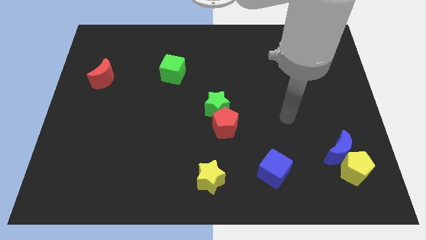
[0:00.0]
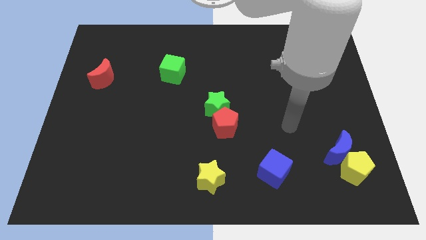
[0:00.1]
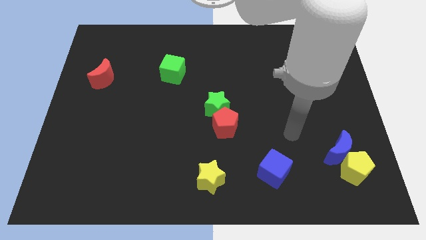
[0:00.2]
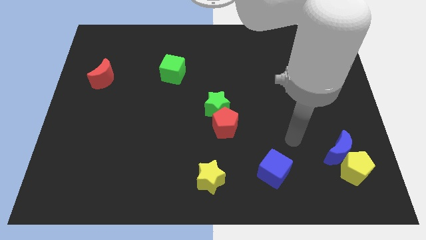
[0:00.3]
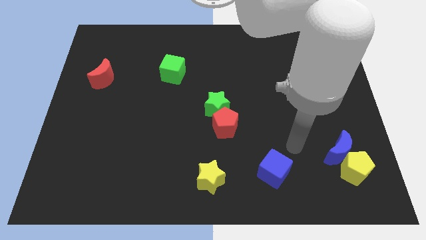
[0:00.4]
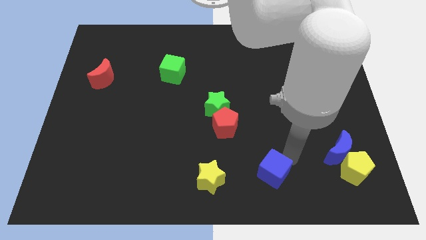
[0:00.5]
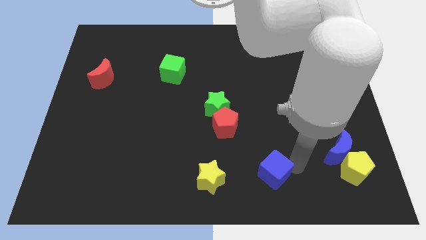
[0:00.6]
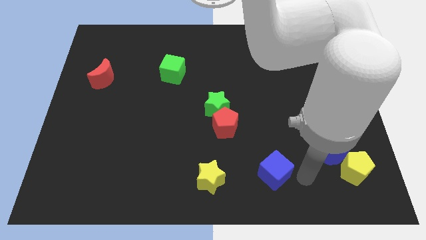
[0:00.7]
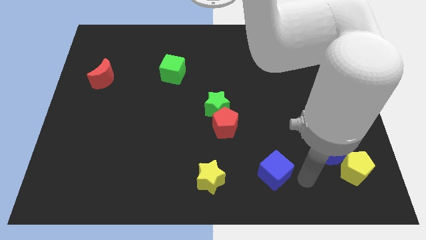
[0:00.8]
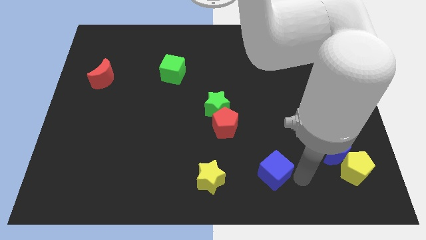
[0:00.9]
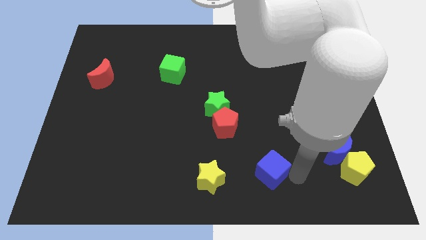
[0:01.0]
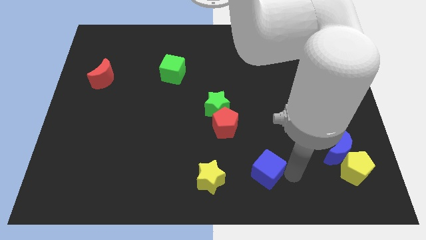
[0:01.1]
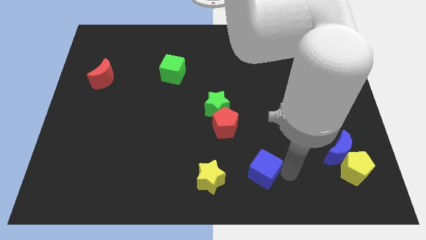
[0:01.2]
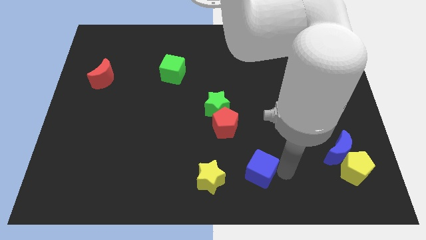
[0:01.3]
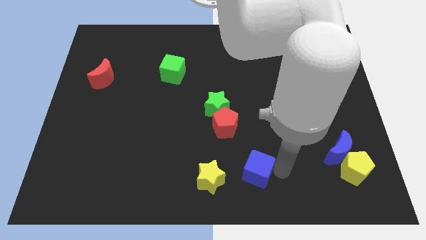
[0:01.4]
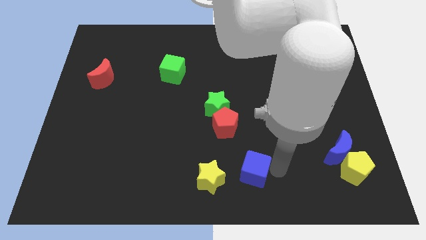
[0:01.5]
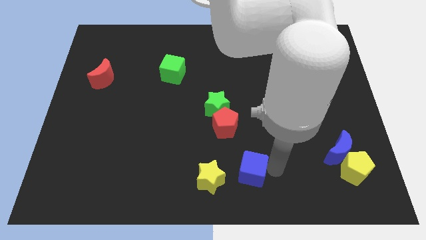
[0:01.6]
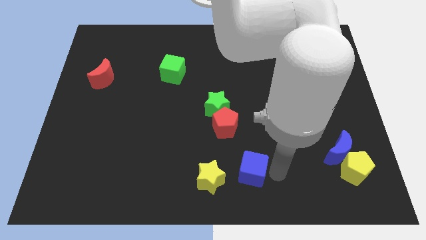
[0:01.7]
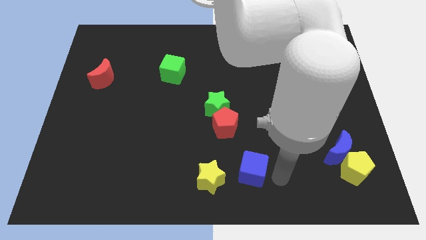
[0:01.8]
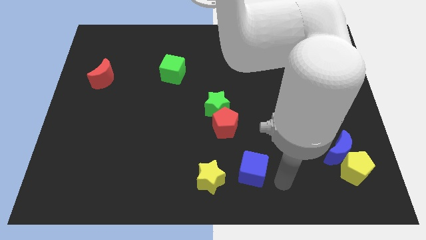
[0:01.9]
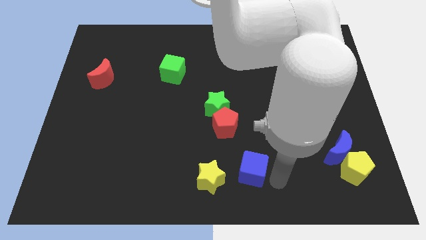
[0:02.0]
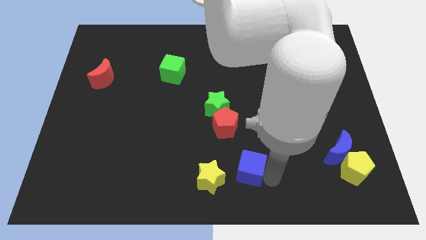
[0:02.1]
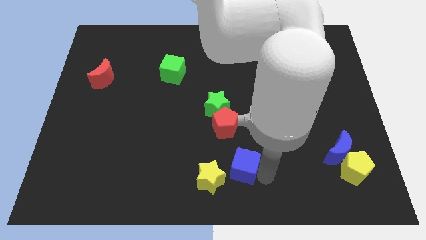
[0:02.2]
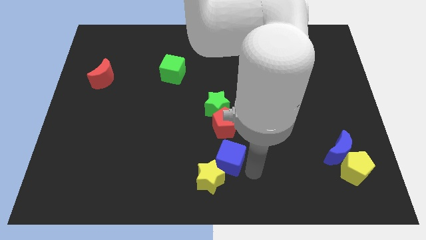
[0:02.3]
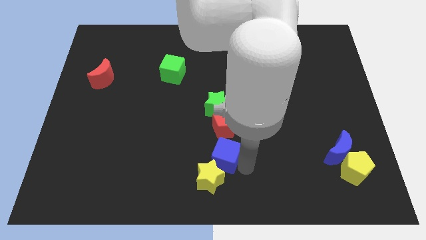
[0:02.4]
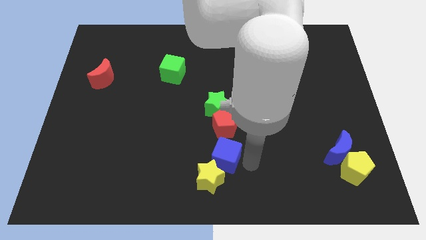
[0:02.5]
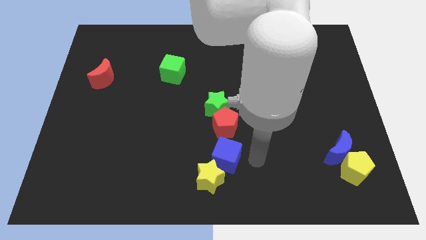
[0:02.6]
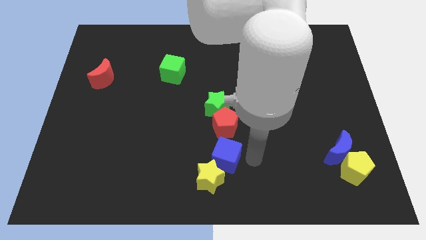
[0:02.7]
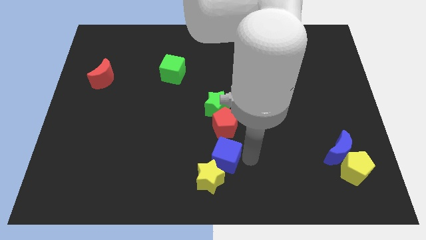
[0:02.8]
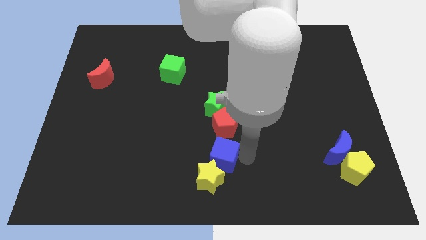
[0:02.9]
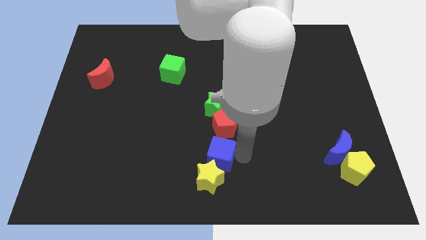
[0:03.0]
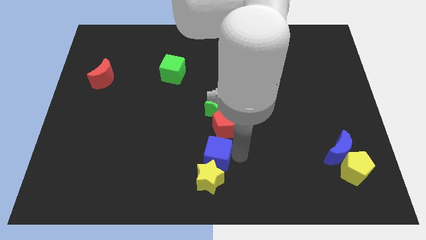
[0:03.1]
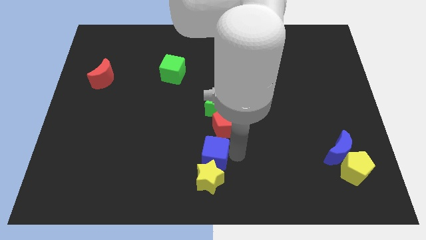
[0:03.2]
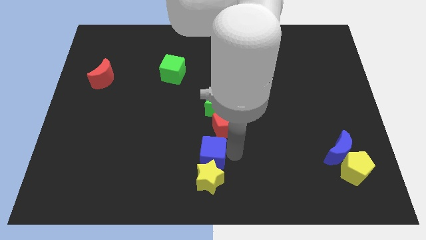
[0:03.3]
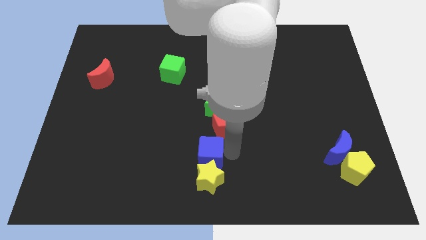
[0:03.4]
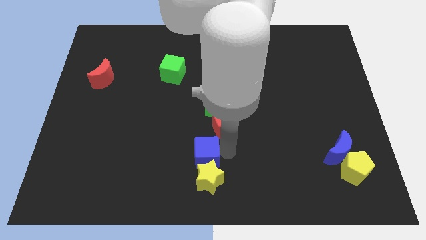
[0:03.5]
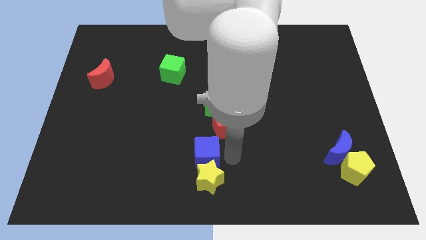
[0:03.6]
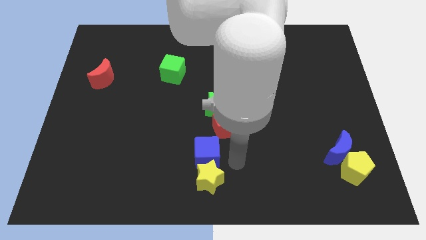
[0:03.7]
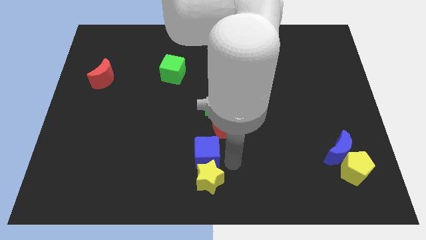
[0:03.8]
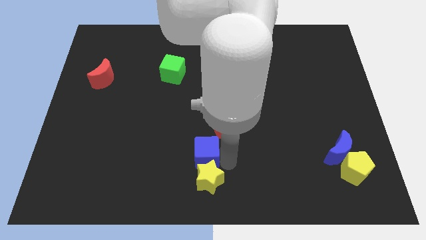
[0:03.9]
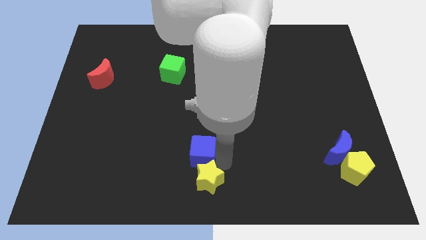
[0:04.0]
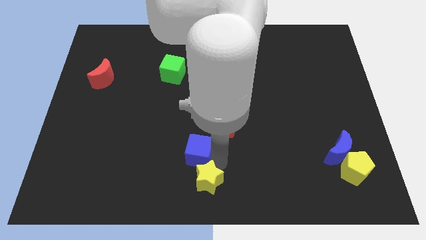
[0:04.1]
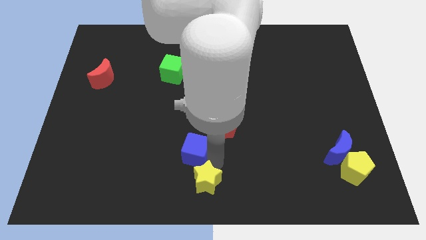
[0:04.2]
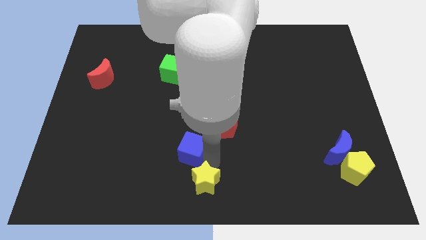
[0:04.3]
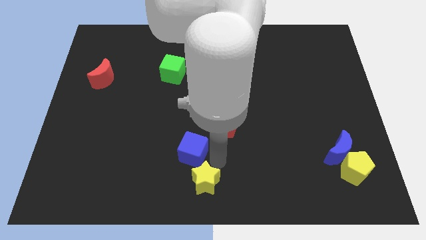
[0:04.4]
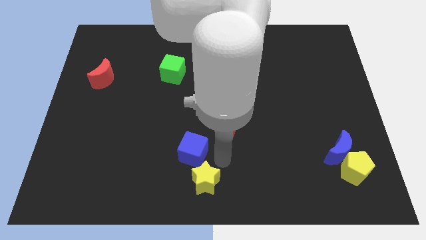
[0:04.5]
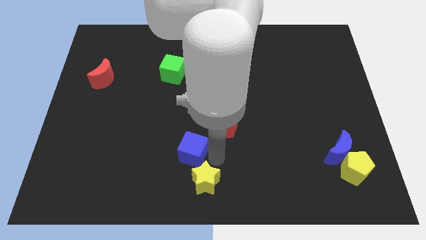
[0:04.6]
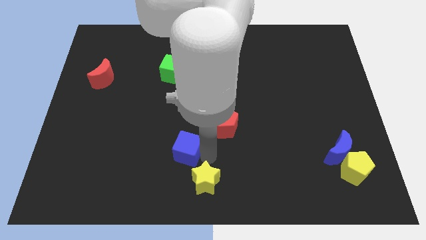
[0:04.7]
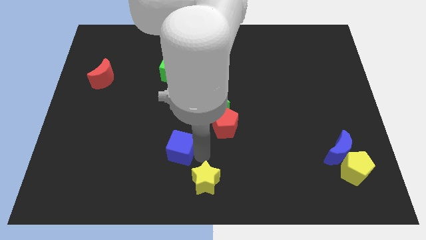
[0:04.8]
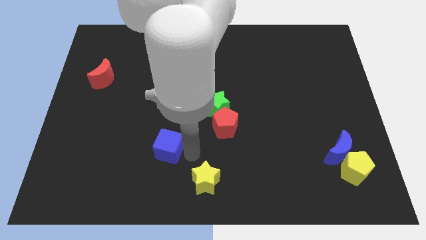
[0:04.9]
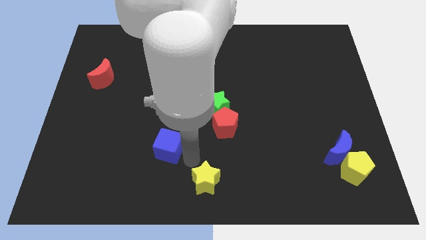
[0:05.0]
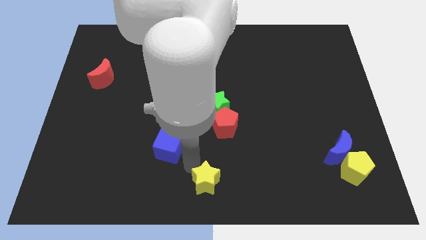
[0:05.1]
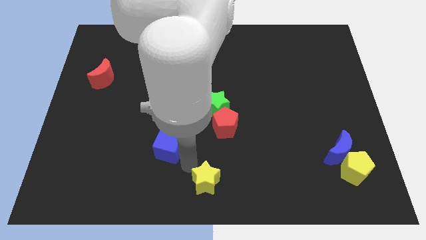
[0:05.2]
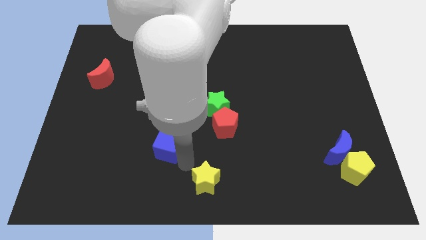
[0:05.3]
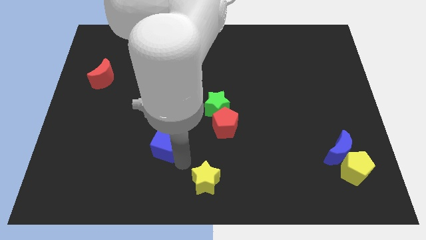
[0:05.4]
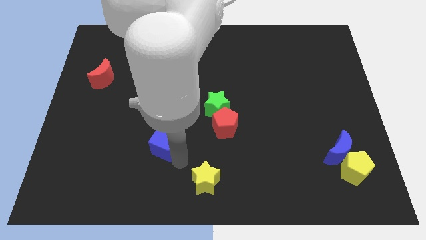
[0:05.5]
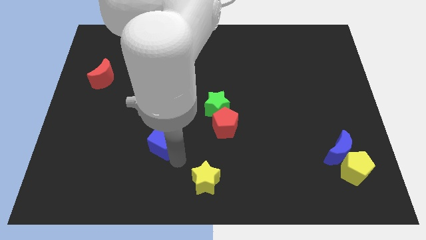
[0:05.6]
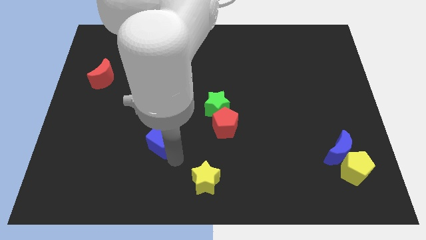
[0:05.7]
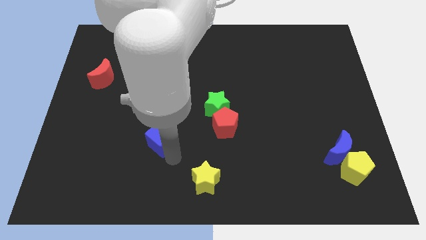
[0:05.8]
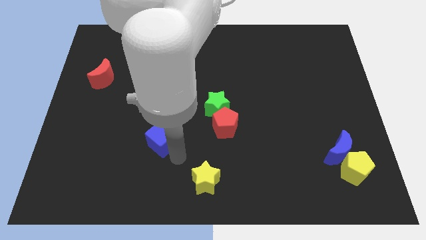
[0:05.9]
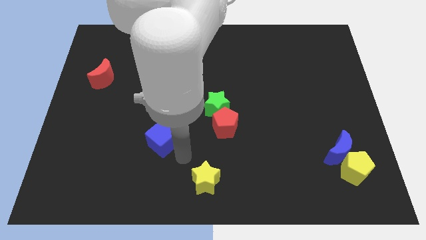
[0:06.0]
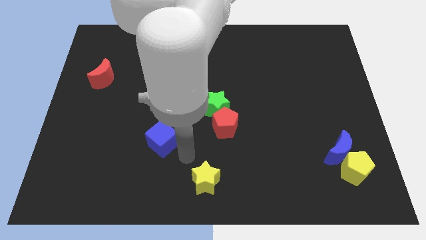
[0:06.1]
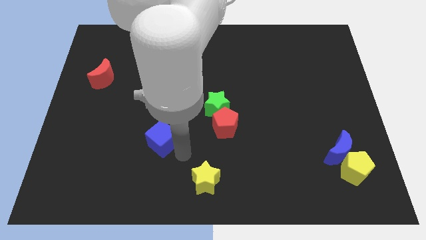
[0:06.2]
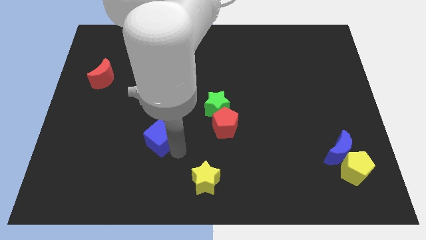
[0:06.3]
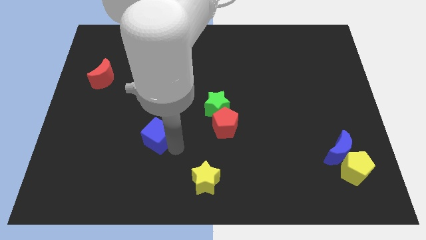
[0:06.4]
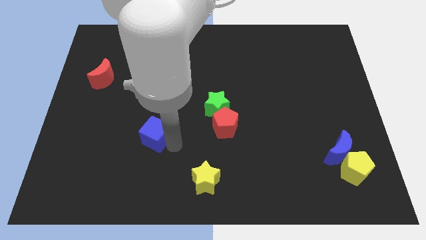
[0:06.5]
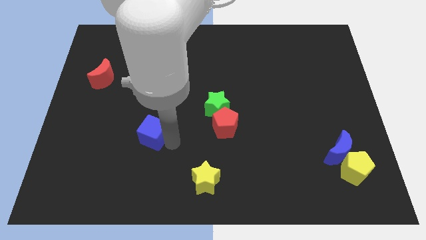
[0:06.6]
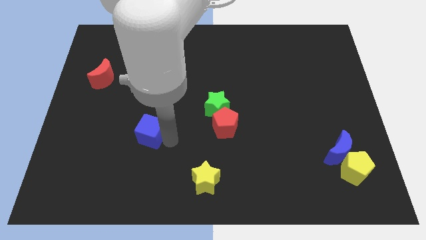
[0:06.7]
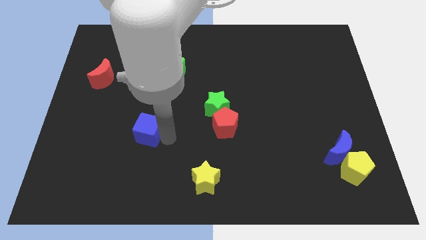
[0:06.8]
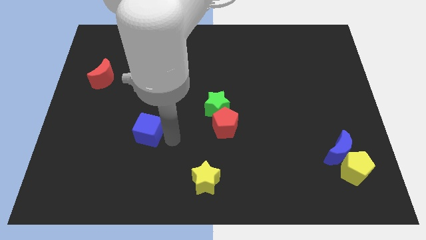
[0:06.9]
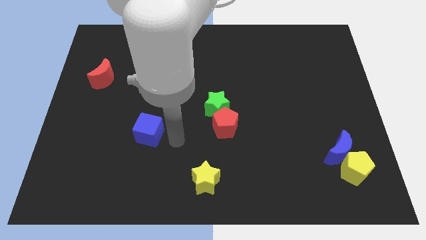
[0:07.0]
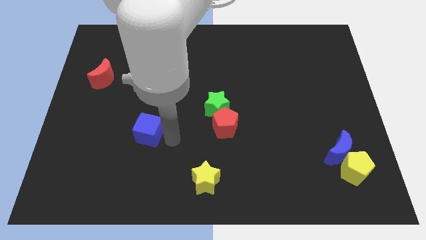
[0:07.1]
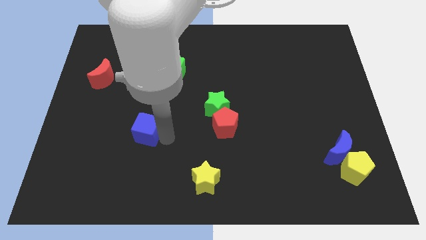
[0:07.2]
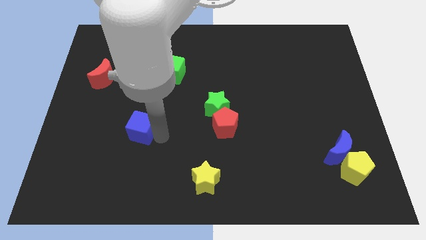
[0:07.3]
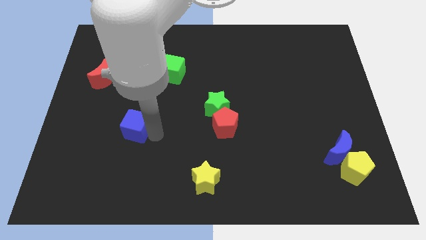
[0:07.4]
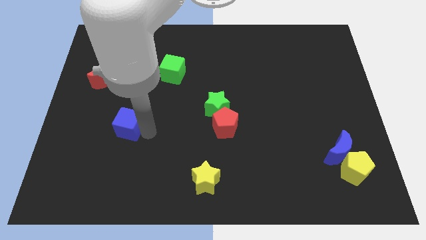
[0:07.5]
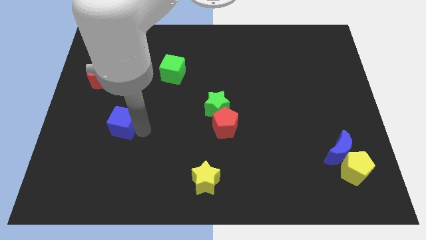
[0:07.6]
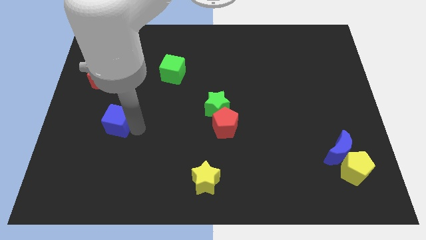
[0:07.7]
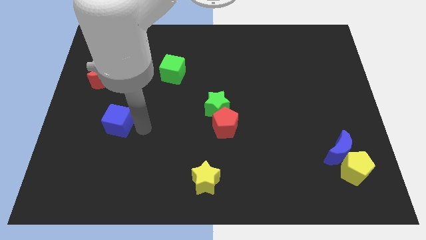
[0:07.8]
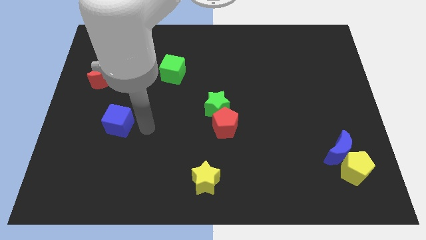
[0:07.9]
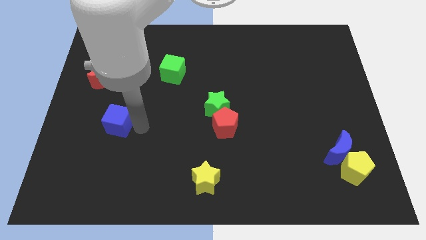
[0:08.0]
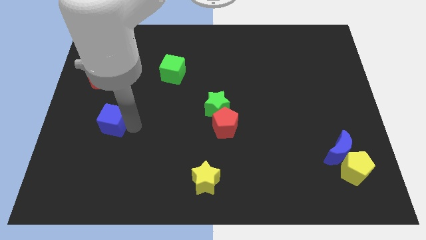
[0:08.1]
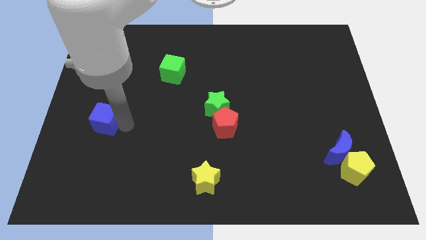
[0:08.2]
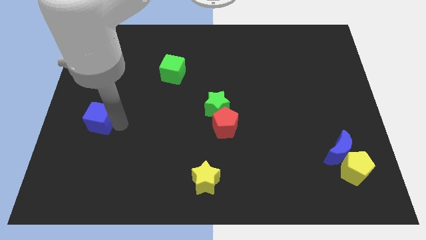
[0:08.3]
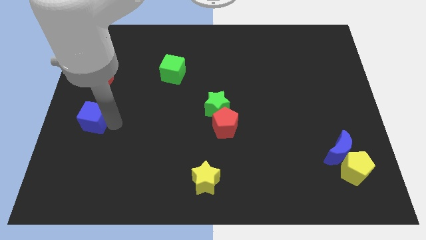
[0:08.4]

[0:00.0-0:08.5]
slide the blue cube to the left side
